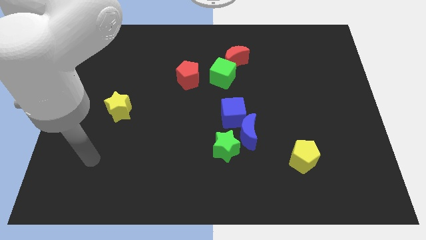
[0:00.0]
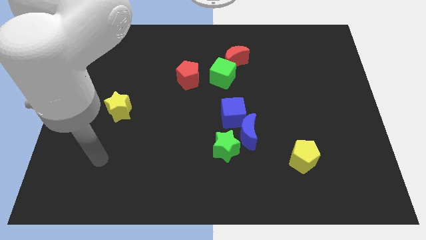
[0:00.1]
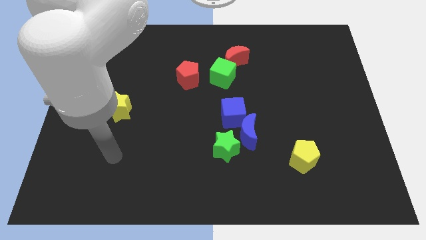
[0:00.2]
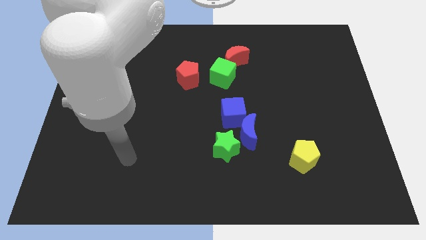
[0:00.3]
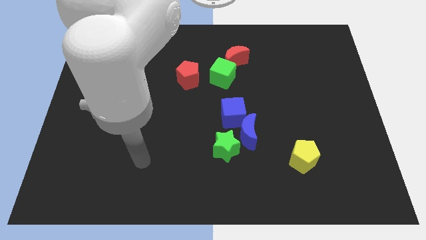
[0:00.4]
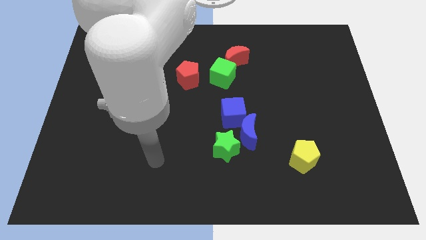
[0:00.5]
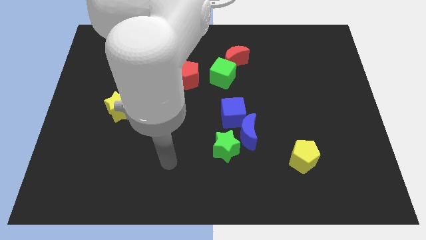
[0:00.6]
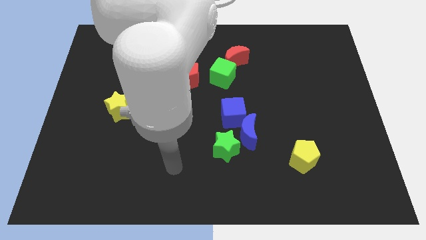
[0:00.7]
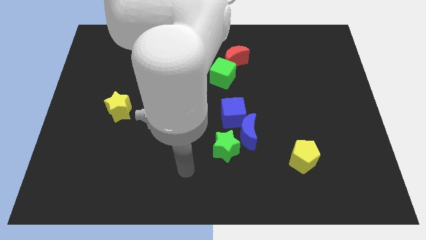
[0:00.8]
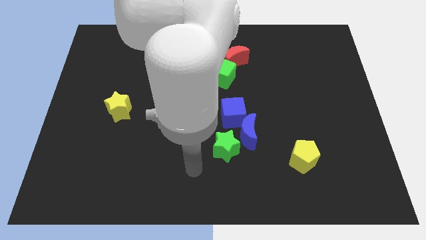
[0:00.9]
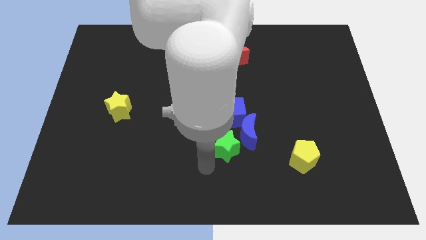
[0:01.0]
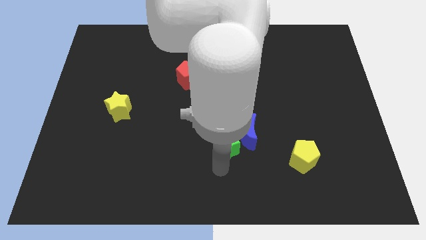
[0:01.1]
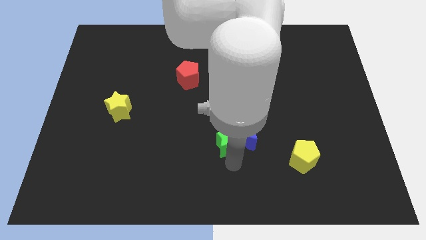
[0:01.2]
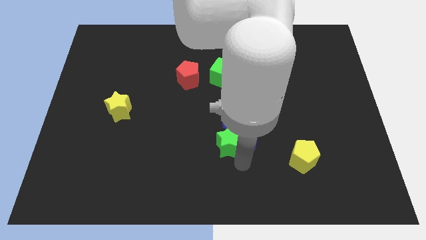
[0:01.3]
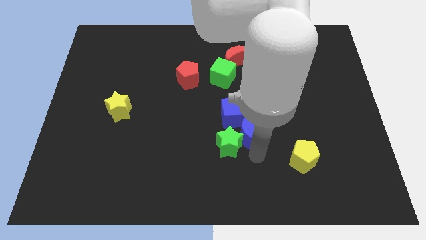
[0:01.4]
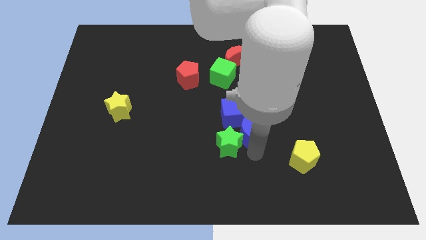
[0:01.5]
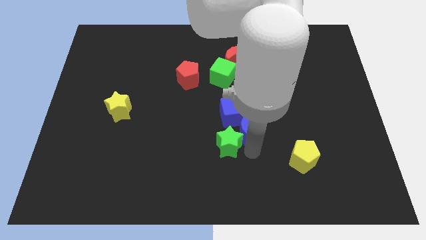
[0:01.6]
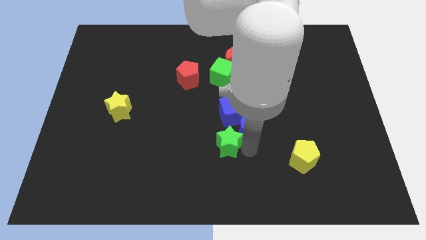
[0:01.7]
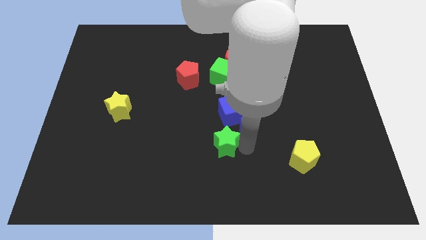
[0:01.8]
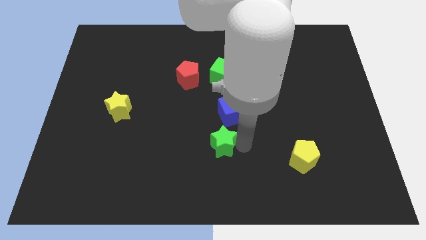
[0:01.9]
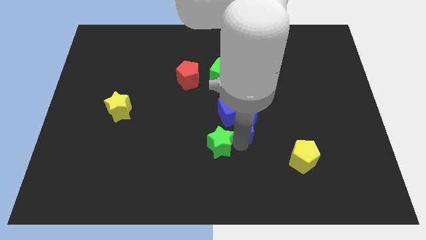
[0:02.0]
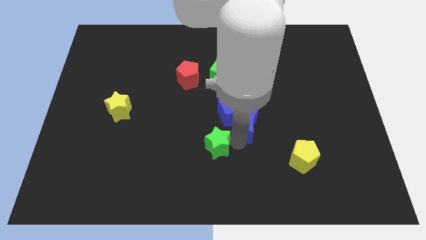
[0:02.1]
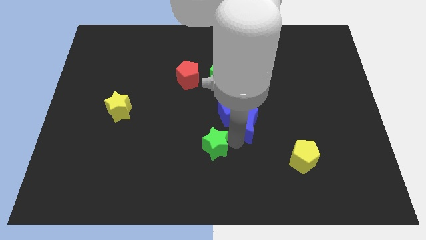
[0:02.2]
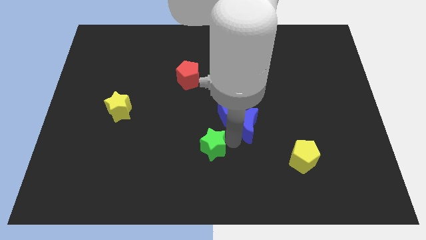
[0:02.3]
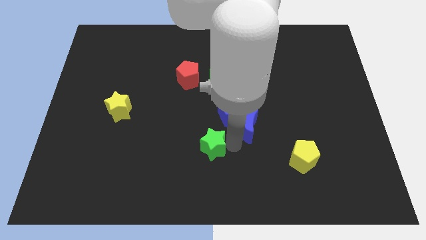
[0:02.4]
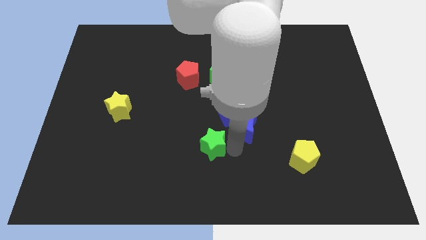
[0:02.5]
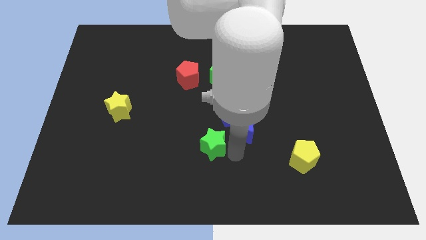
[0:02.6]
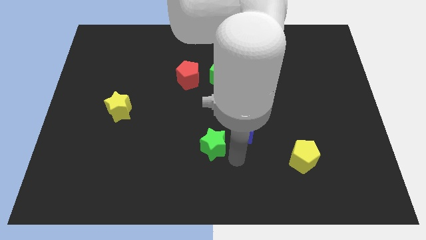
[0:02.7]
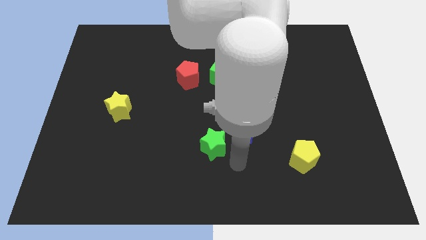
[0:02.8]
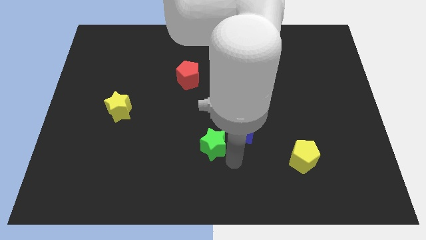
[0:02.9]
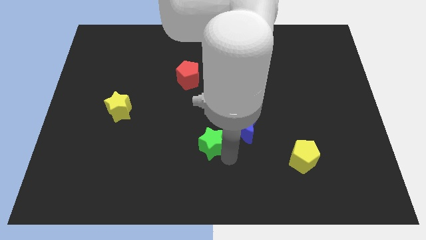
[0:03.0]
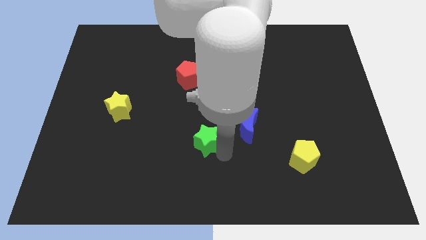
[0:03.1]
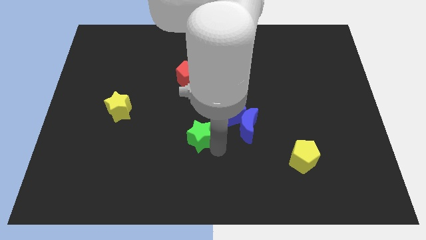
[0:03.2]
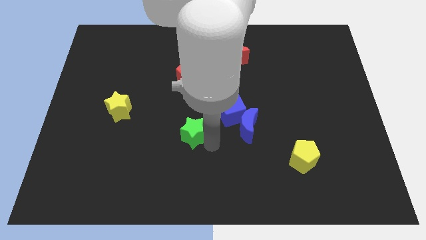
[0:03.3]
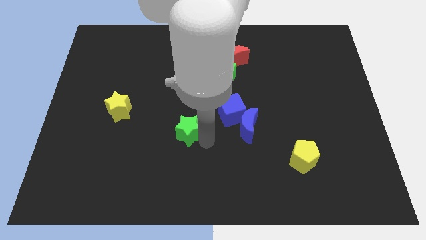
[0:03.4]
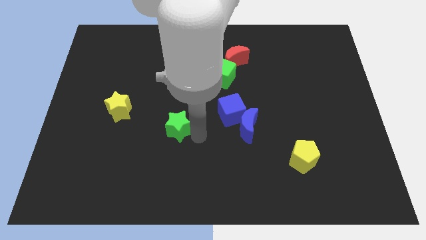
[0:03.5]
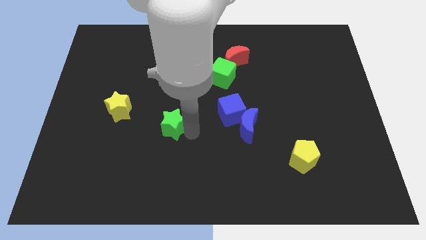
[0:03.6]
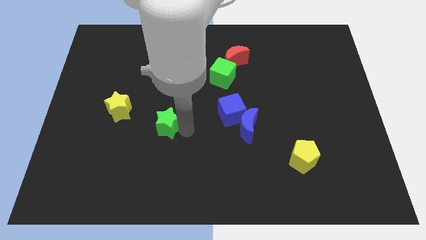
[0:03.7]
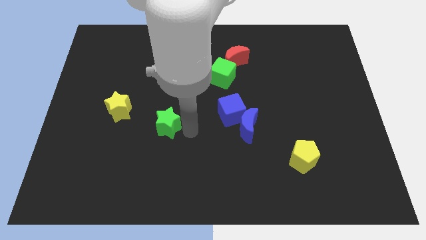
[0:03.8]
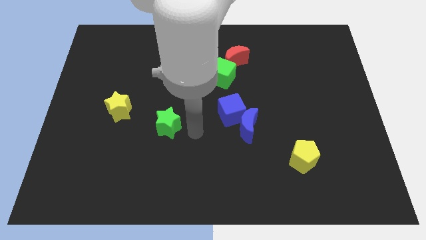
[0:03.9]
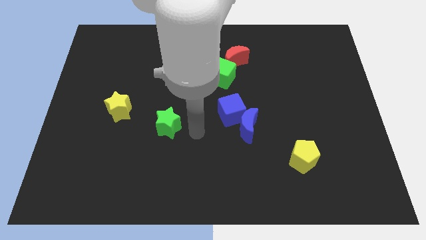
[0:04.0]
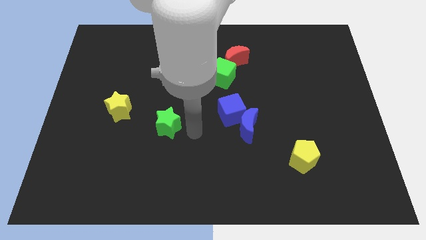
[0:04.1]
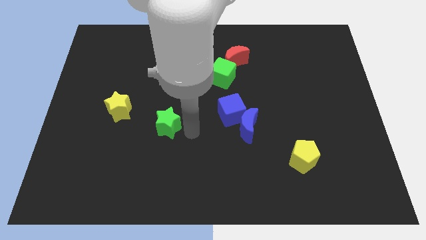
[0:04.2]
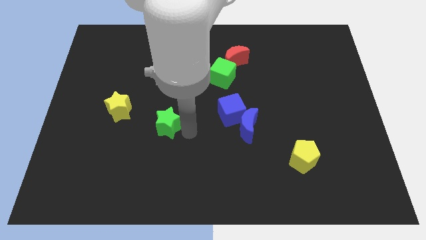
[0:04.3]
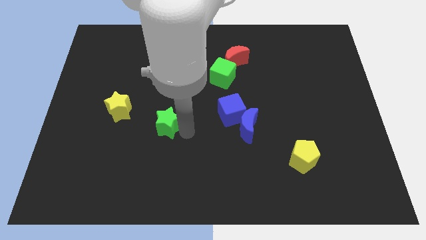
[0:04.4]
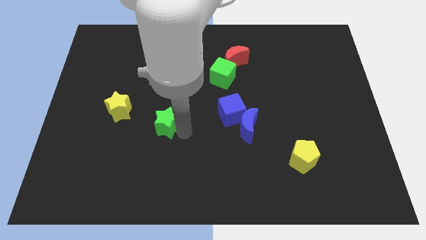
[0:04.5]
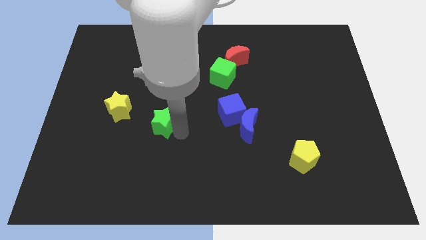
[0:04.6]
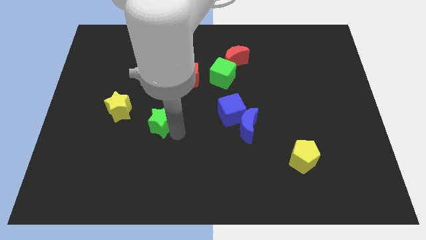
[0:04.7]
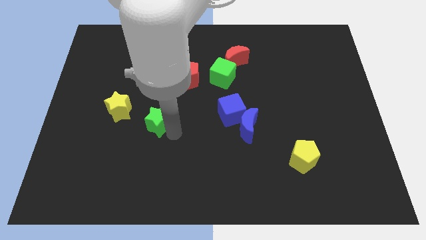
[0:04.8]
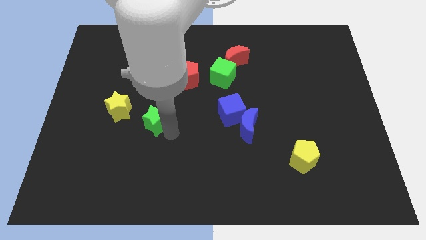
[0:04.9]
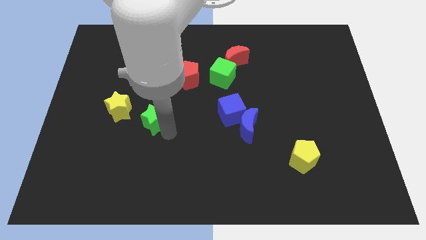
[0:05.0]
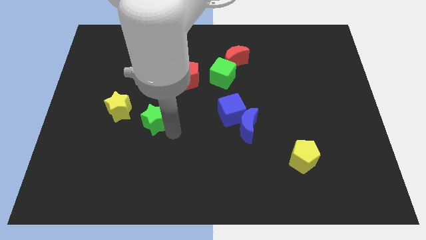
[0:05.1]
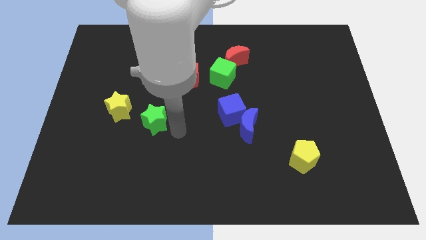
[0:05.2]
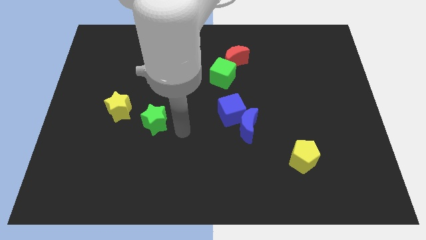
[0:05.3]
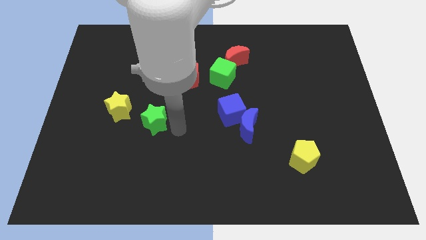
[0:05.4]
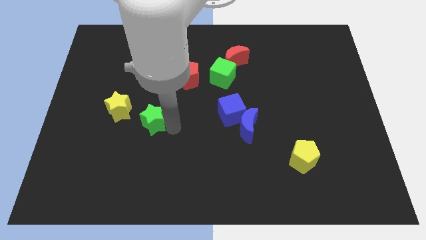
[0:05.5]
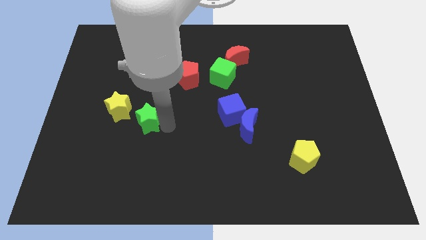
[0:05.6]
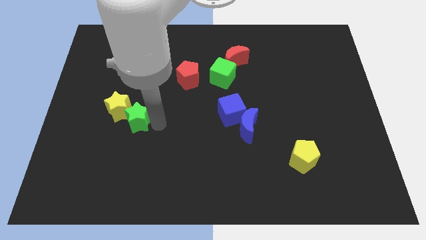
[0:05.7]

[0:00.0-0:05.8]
push the green star close to the yellow star

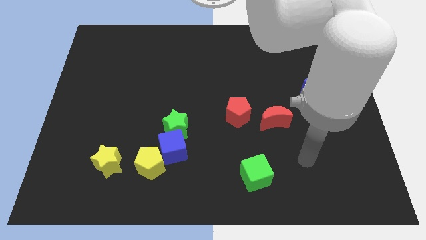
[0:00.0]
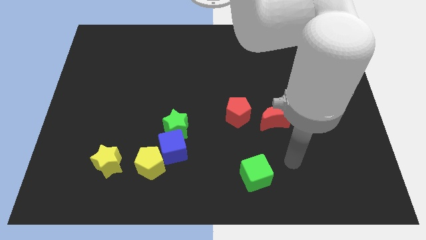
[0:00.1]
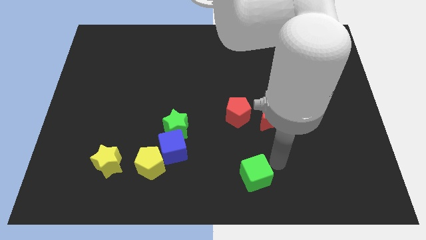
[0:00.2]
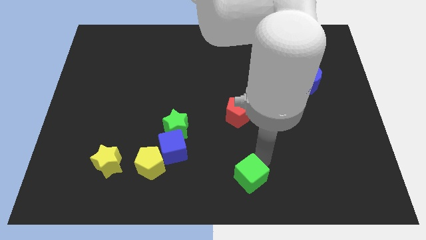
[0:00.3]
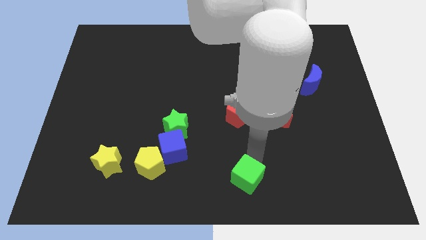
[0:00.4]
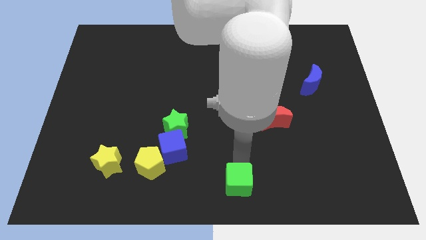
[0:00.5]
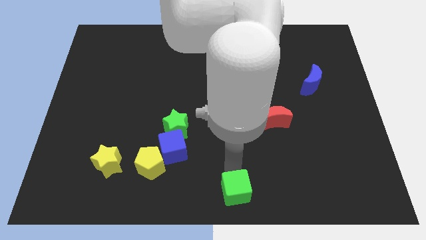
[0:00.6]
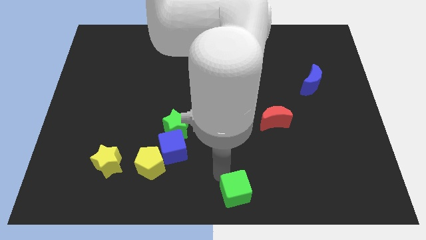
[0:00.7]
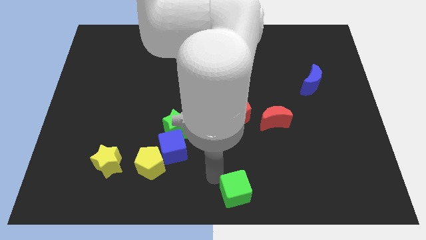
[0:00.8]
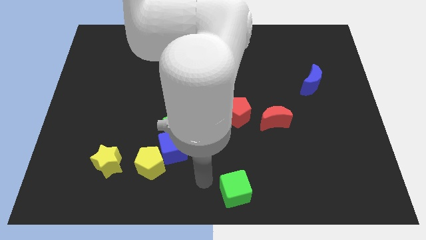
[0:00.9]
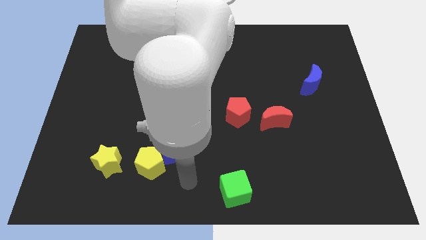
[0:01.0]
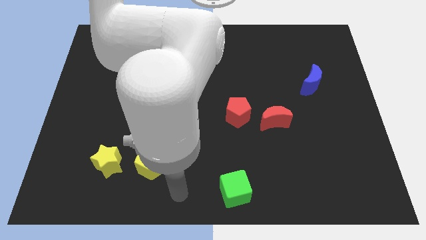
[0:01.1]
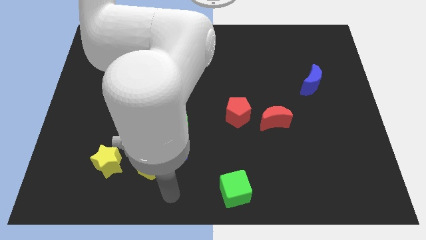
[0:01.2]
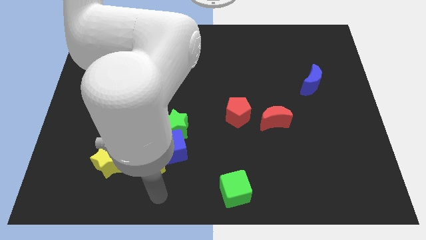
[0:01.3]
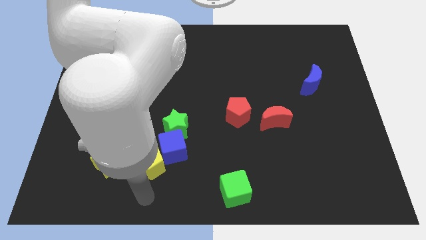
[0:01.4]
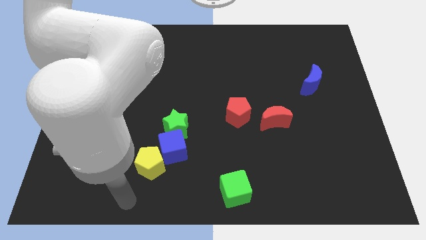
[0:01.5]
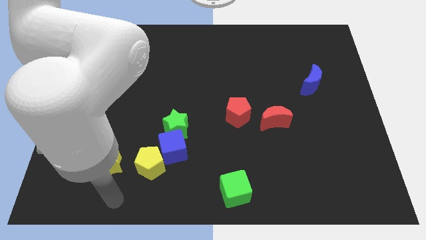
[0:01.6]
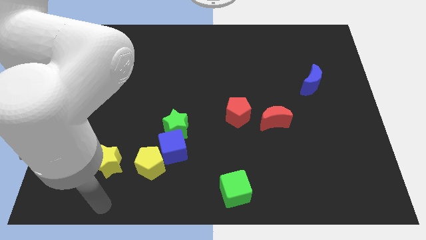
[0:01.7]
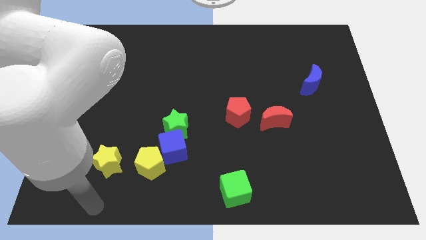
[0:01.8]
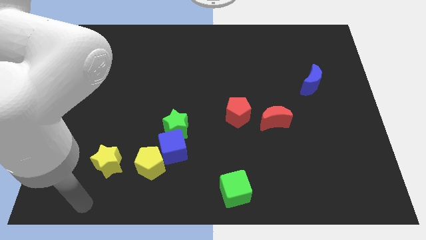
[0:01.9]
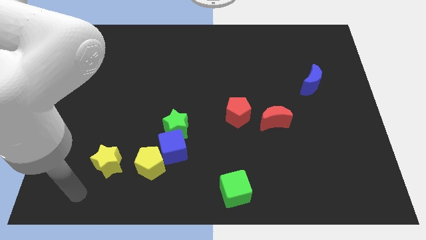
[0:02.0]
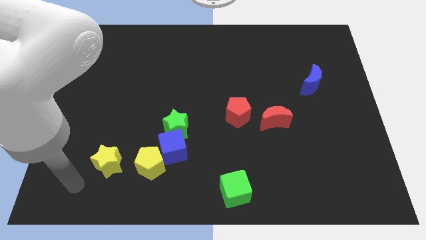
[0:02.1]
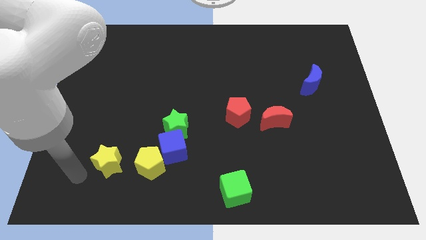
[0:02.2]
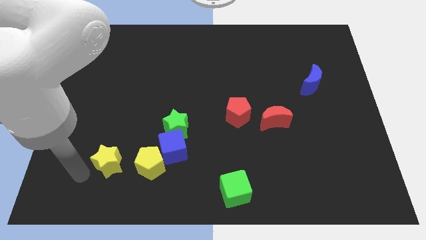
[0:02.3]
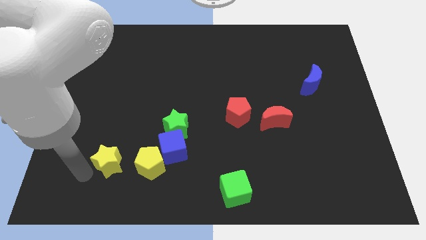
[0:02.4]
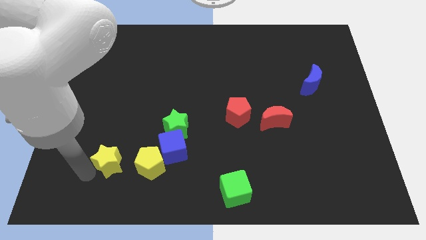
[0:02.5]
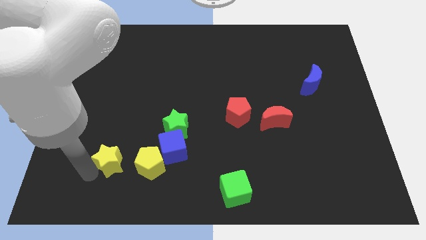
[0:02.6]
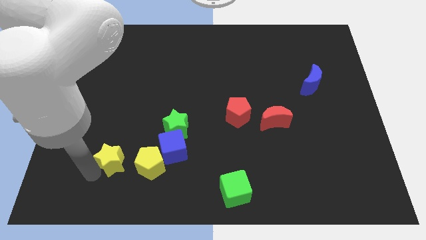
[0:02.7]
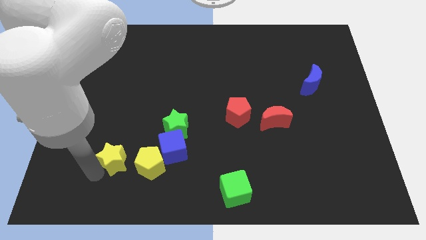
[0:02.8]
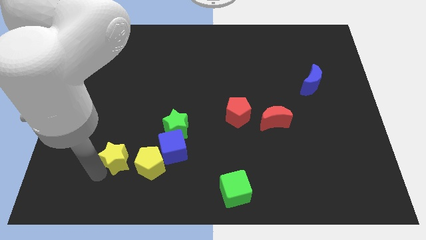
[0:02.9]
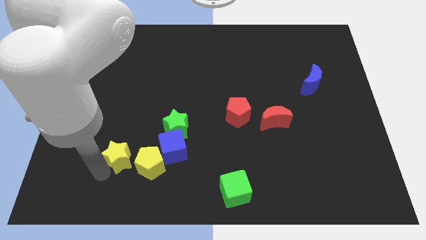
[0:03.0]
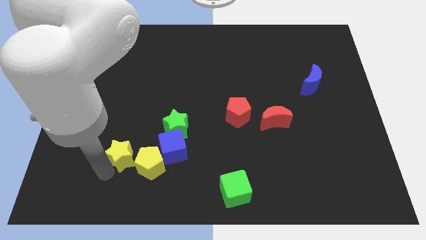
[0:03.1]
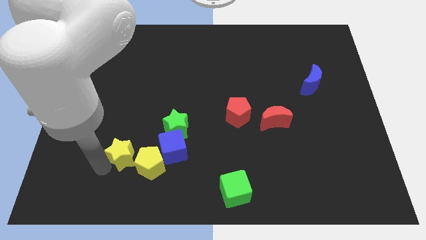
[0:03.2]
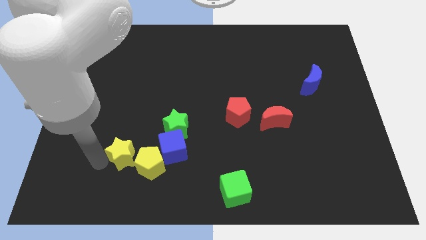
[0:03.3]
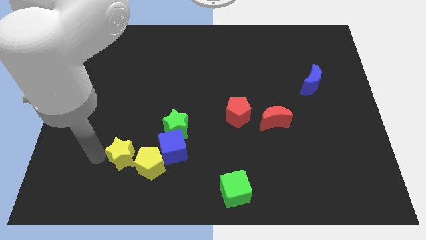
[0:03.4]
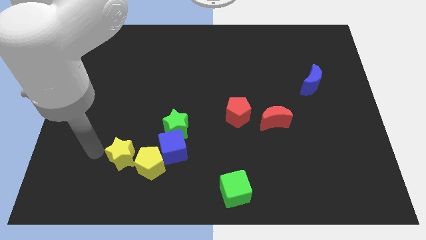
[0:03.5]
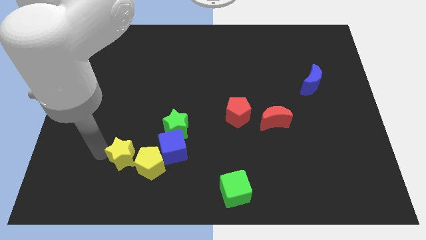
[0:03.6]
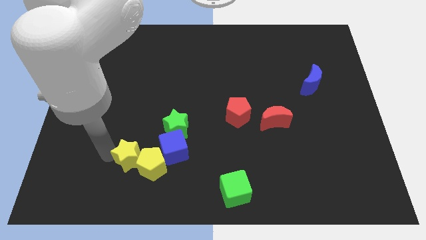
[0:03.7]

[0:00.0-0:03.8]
slide the yellow star to the yellow pentagon
